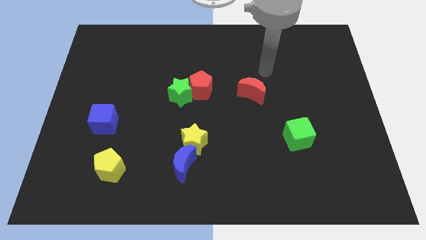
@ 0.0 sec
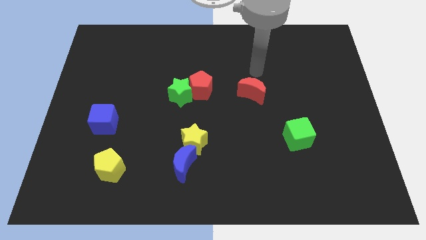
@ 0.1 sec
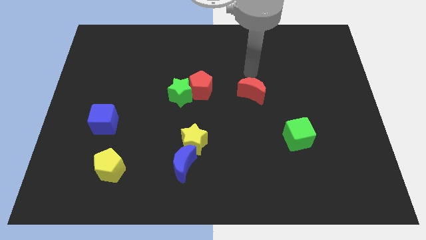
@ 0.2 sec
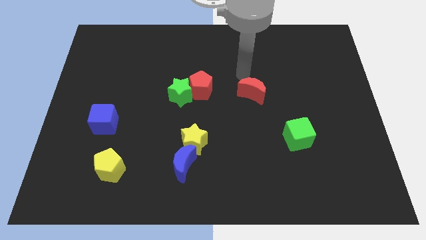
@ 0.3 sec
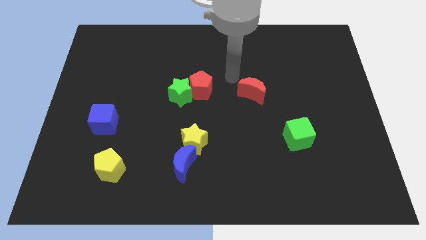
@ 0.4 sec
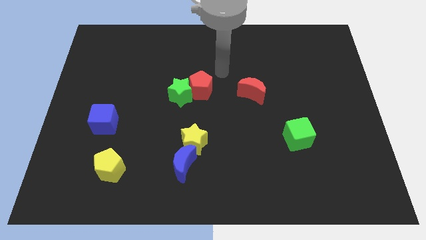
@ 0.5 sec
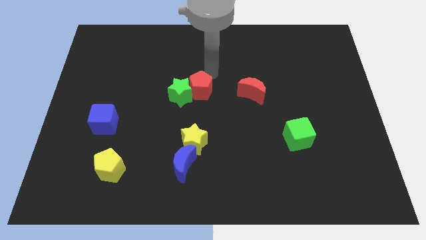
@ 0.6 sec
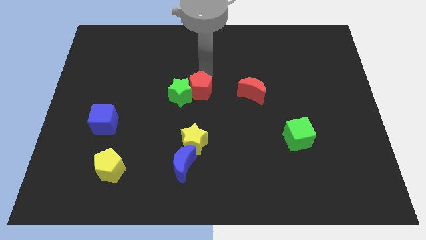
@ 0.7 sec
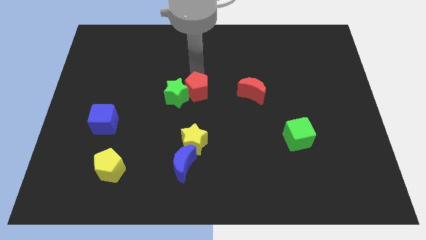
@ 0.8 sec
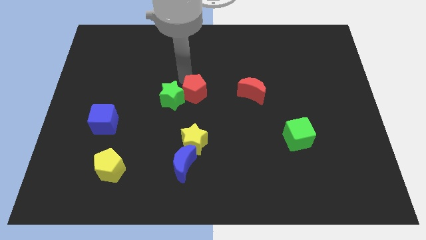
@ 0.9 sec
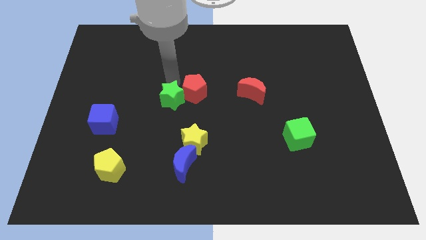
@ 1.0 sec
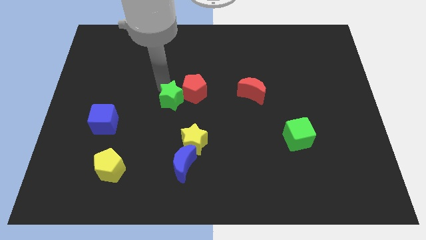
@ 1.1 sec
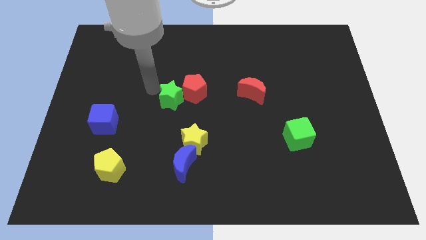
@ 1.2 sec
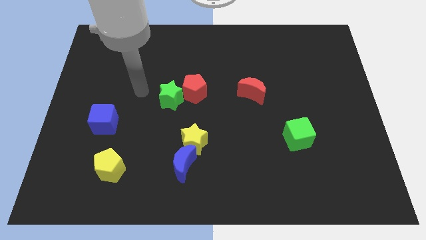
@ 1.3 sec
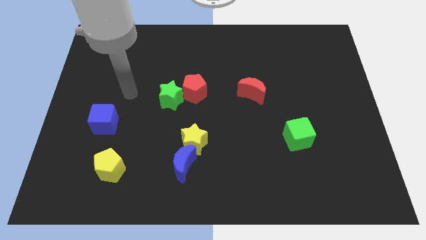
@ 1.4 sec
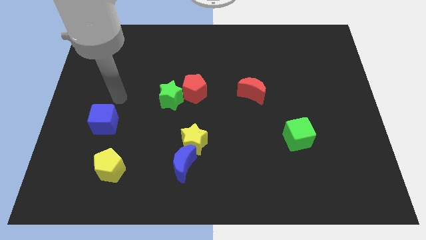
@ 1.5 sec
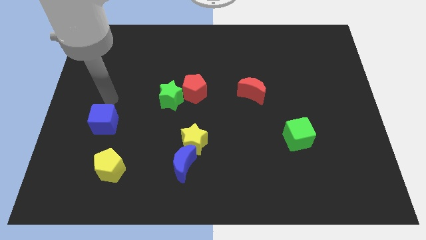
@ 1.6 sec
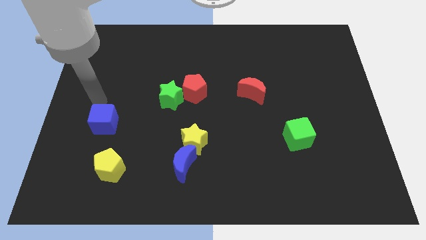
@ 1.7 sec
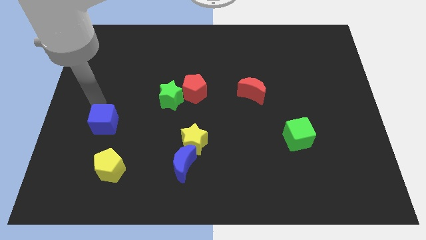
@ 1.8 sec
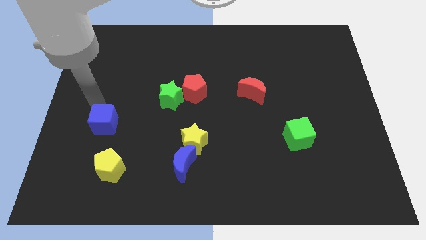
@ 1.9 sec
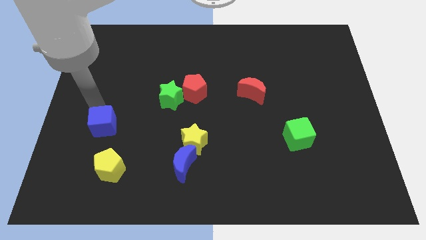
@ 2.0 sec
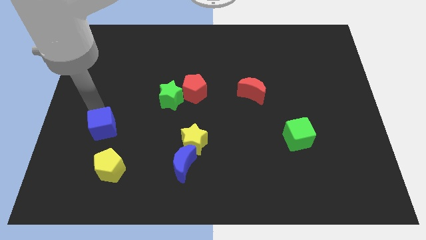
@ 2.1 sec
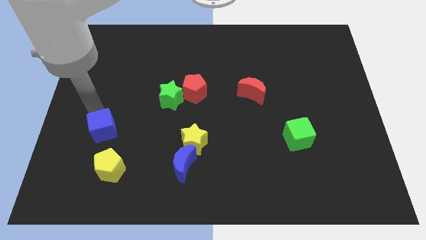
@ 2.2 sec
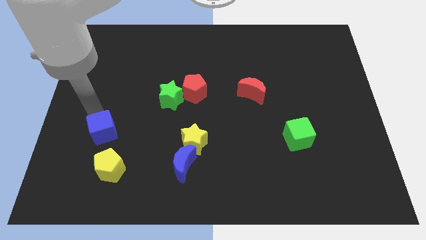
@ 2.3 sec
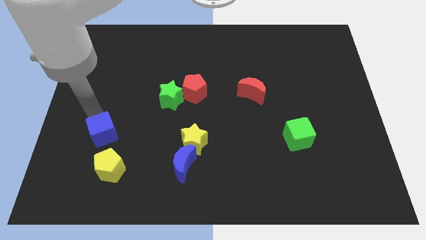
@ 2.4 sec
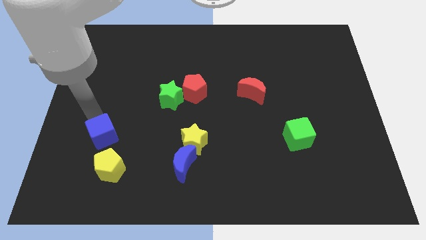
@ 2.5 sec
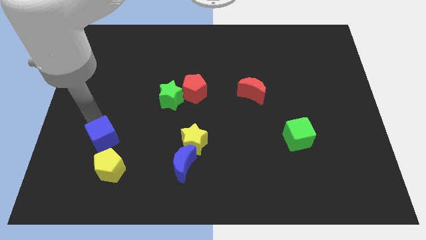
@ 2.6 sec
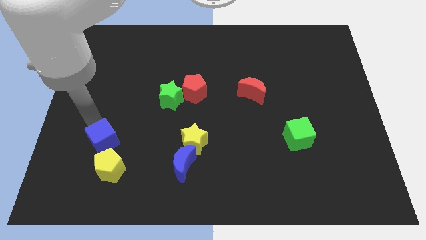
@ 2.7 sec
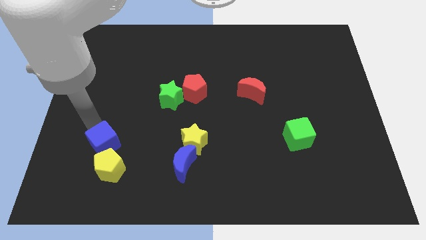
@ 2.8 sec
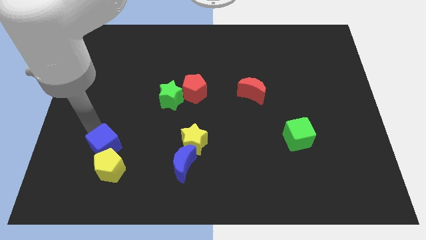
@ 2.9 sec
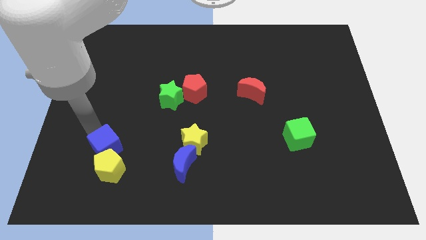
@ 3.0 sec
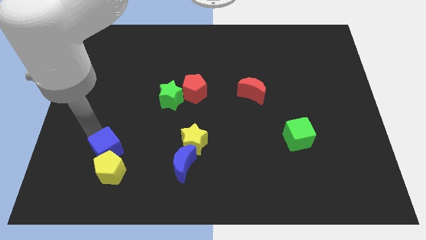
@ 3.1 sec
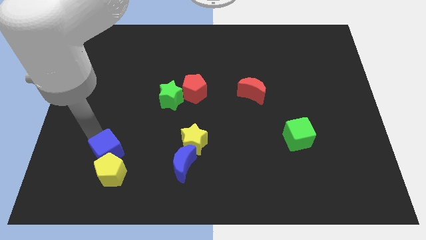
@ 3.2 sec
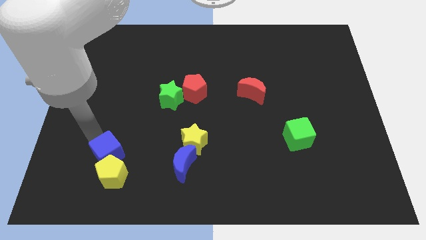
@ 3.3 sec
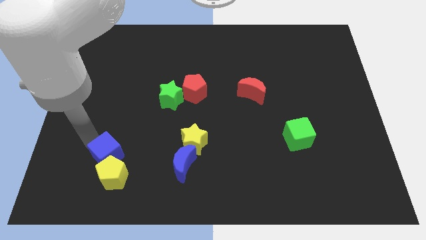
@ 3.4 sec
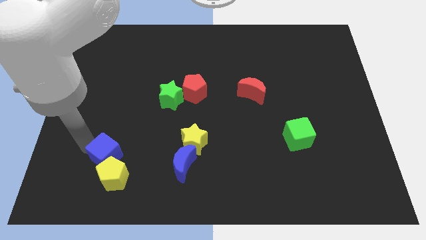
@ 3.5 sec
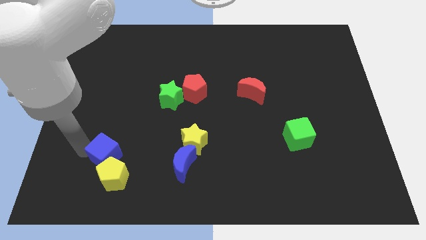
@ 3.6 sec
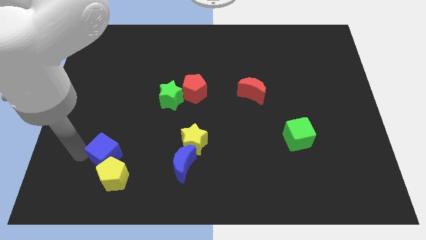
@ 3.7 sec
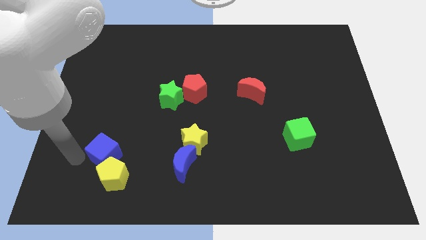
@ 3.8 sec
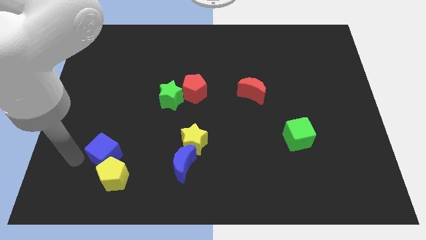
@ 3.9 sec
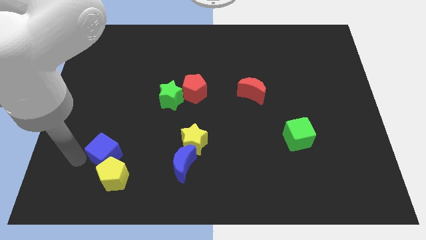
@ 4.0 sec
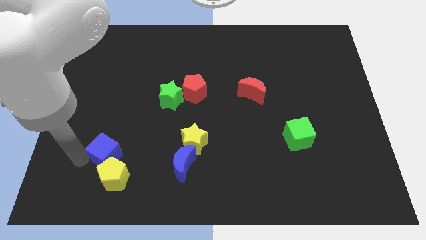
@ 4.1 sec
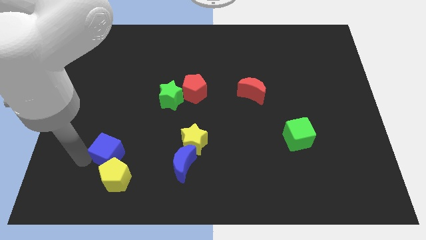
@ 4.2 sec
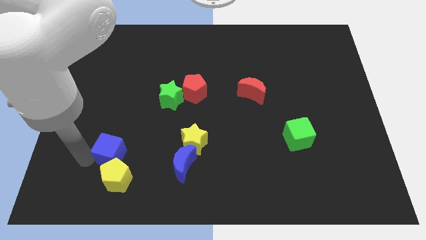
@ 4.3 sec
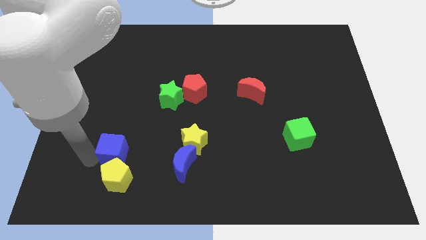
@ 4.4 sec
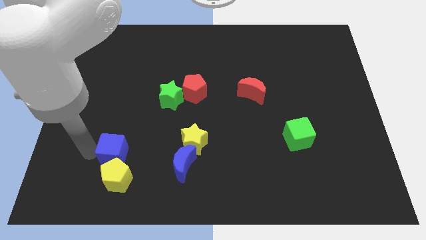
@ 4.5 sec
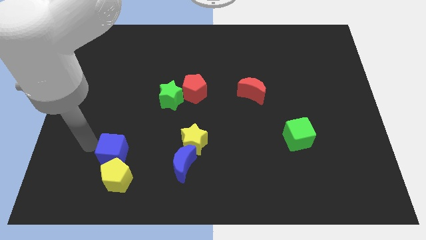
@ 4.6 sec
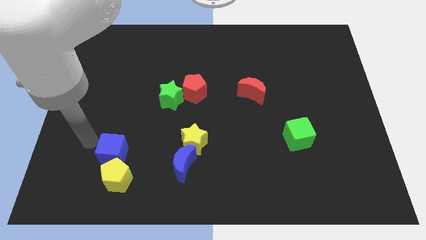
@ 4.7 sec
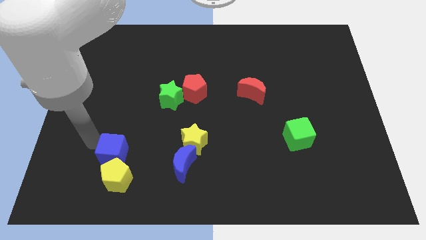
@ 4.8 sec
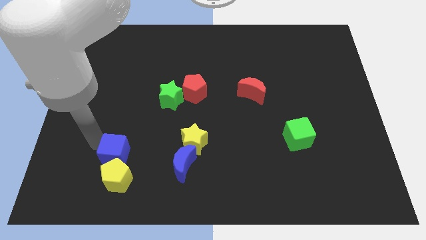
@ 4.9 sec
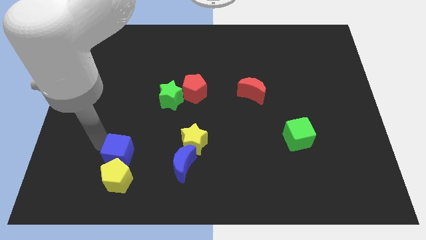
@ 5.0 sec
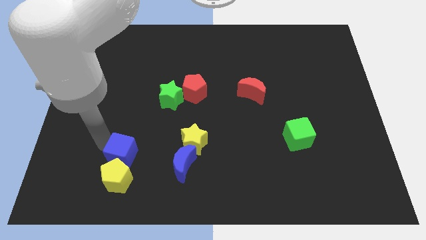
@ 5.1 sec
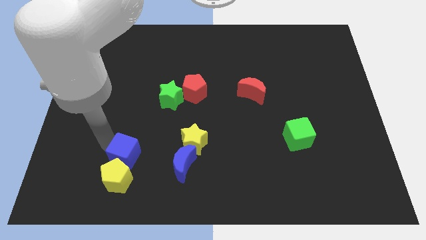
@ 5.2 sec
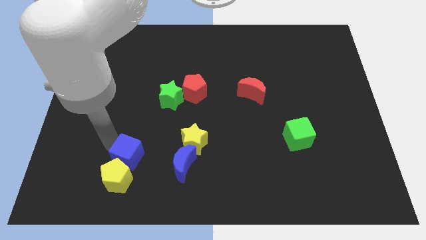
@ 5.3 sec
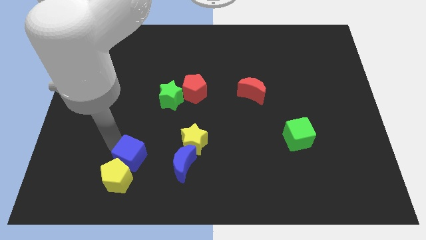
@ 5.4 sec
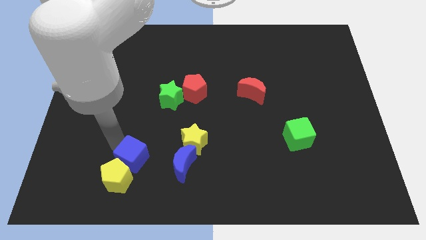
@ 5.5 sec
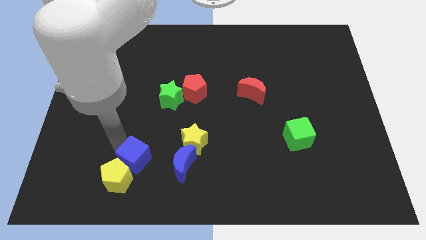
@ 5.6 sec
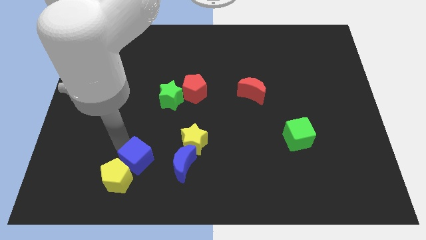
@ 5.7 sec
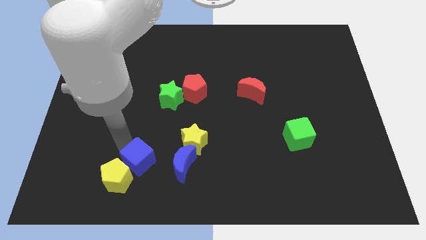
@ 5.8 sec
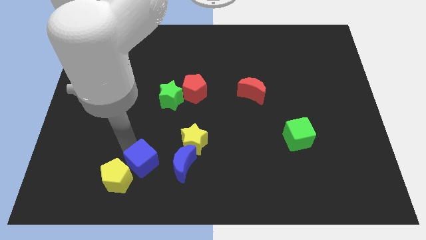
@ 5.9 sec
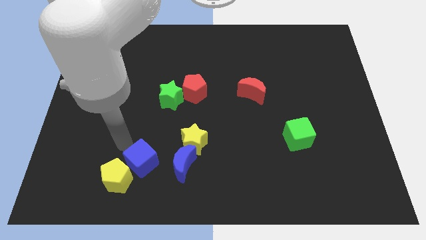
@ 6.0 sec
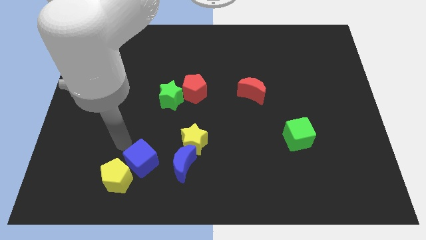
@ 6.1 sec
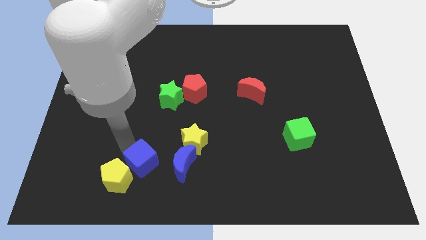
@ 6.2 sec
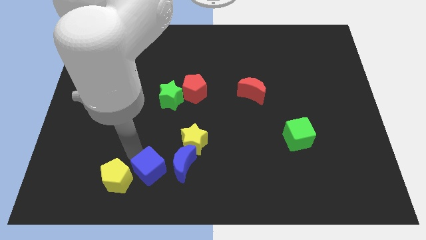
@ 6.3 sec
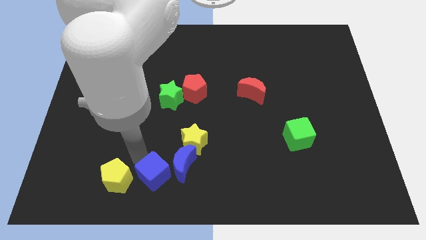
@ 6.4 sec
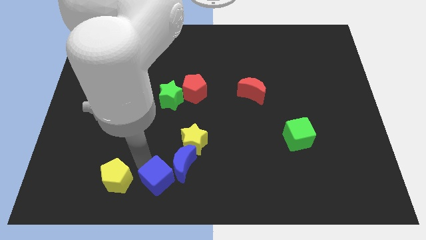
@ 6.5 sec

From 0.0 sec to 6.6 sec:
slide the blue cube to the bottom side
